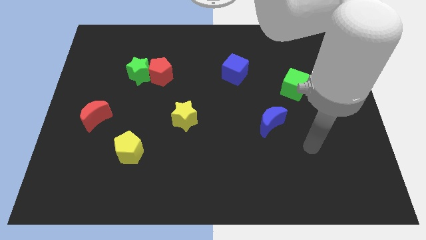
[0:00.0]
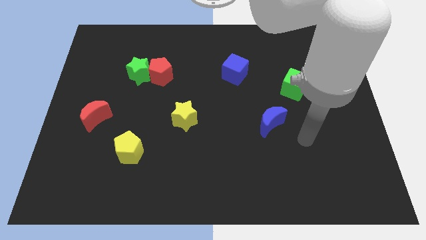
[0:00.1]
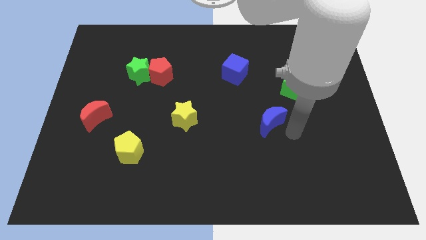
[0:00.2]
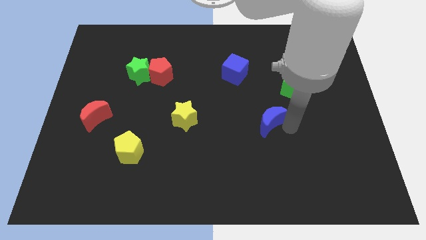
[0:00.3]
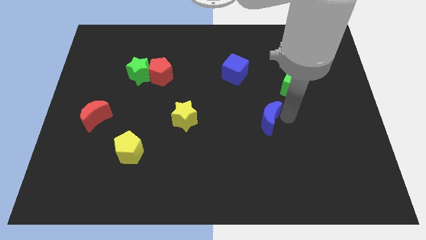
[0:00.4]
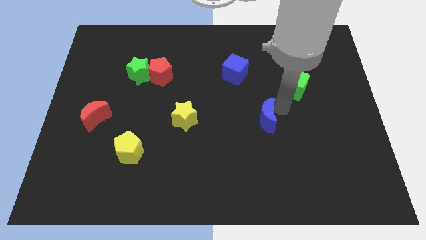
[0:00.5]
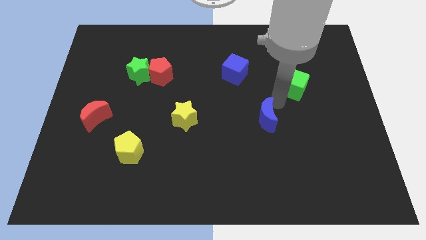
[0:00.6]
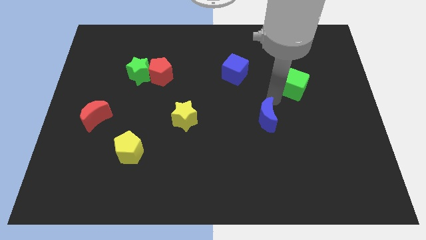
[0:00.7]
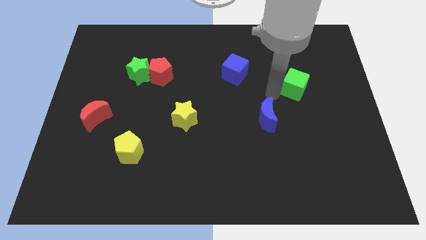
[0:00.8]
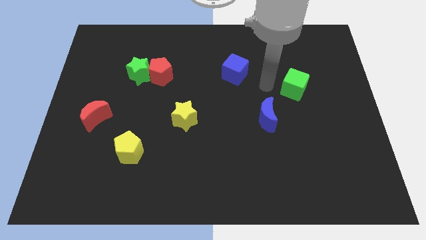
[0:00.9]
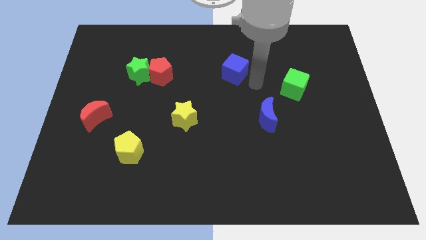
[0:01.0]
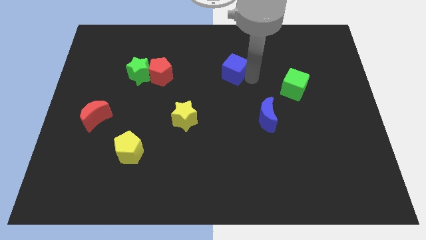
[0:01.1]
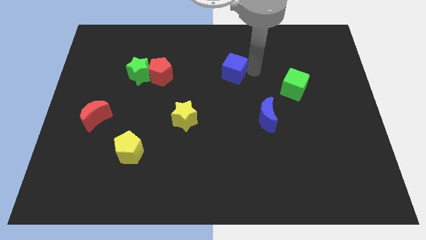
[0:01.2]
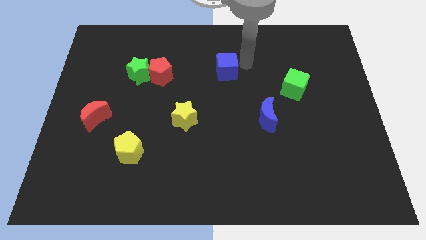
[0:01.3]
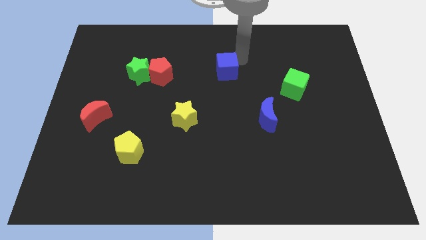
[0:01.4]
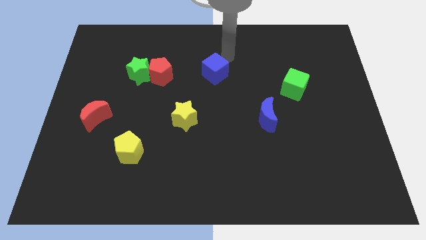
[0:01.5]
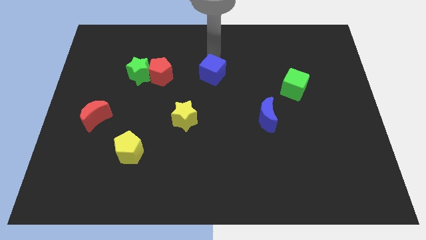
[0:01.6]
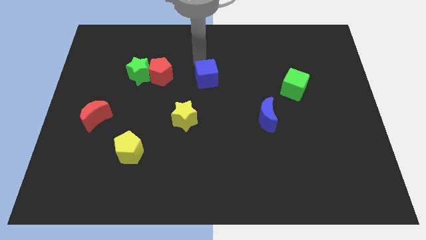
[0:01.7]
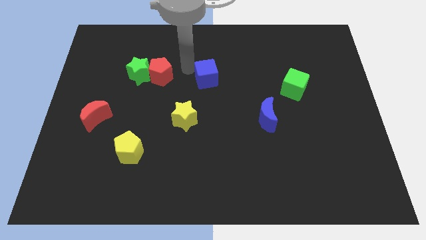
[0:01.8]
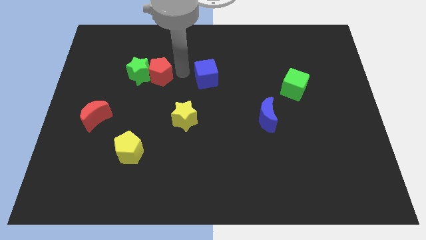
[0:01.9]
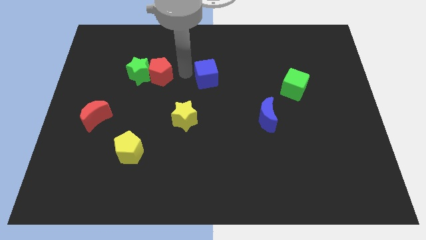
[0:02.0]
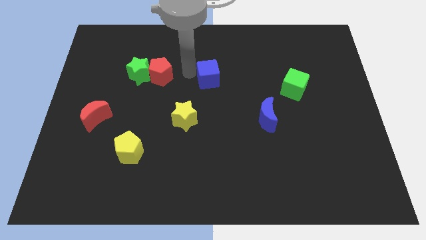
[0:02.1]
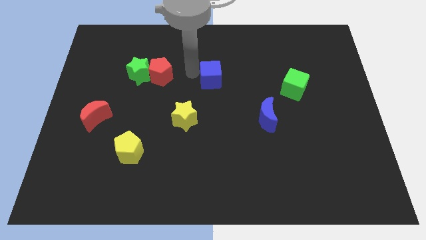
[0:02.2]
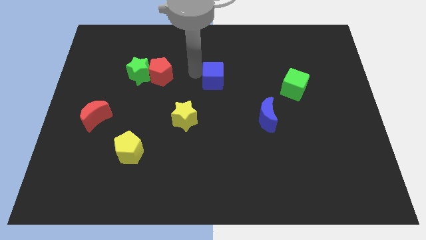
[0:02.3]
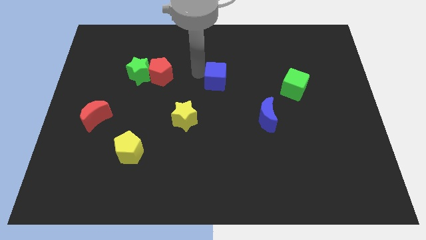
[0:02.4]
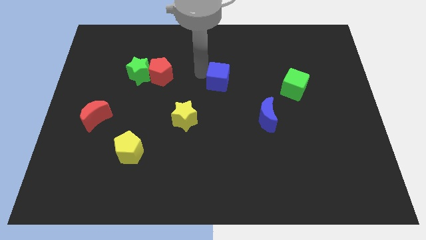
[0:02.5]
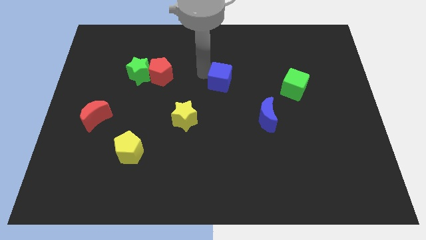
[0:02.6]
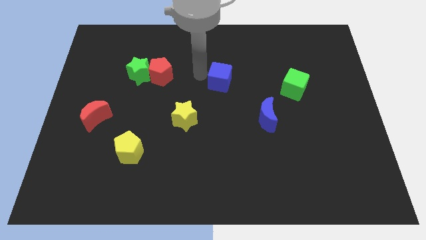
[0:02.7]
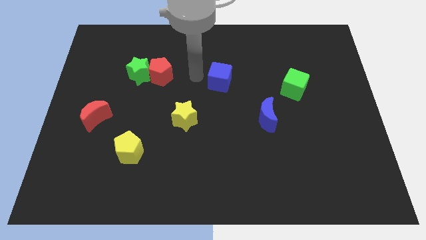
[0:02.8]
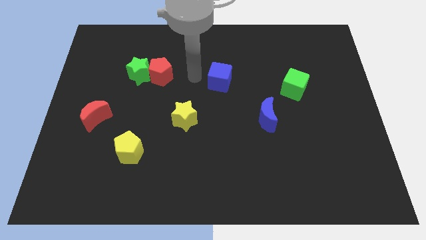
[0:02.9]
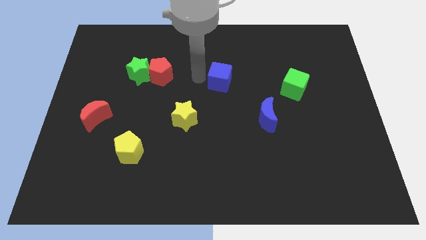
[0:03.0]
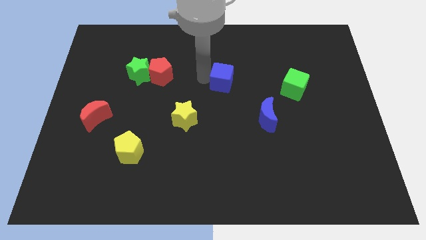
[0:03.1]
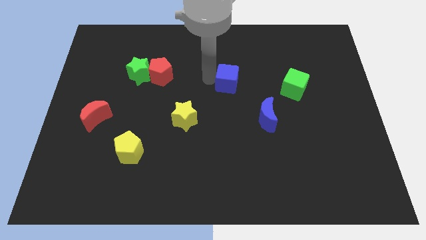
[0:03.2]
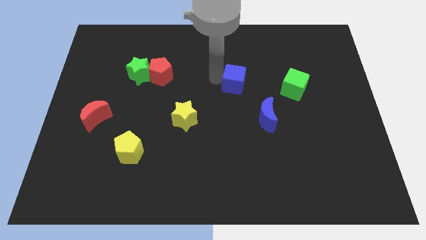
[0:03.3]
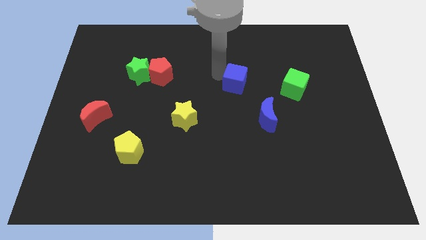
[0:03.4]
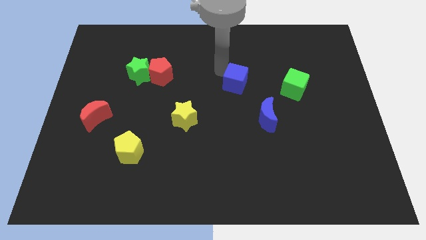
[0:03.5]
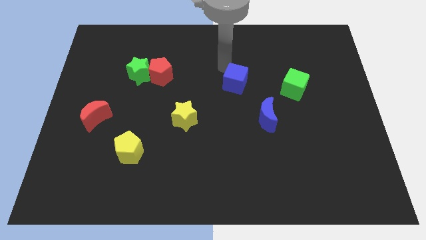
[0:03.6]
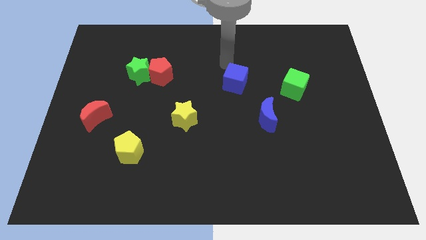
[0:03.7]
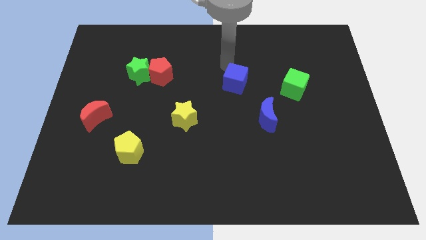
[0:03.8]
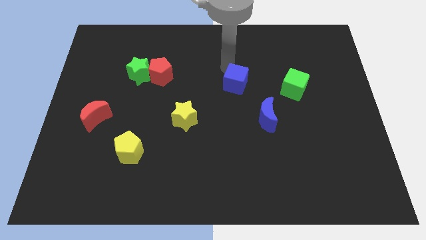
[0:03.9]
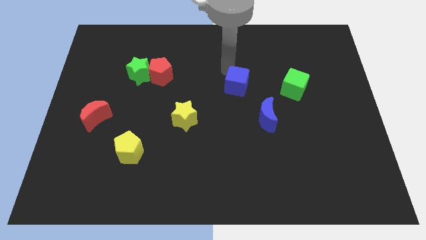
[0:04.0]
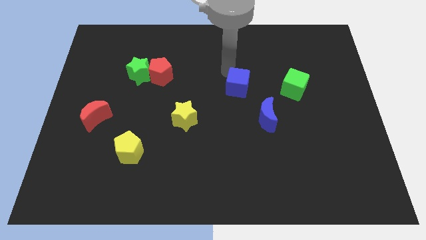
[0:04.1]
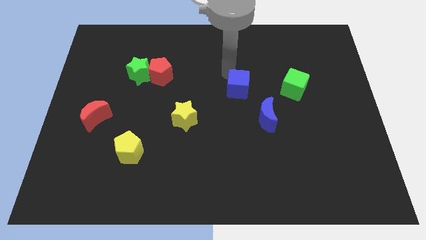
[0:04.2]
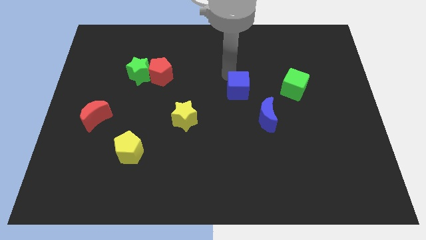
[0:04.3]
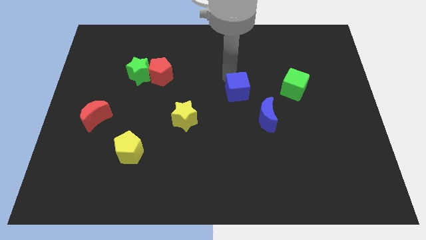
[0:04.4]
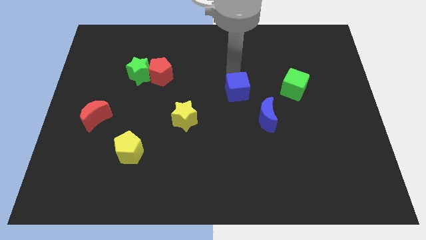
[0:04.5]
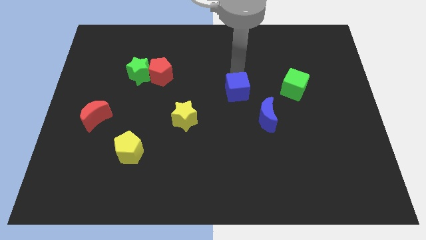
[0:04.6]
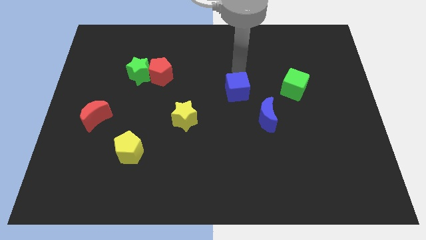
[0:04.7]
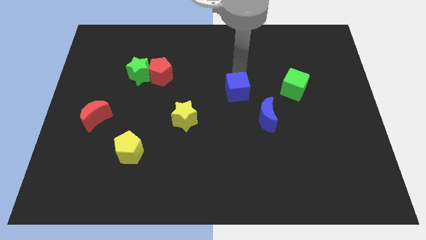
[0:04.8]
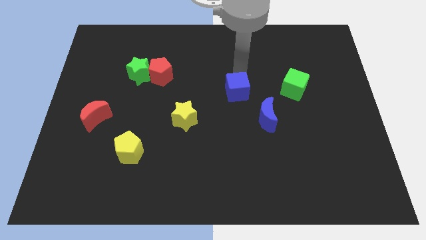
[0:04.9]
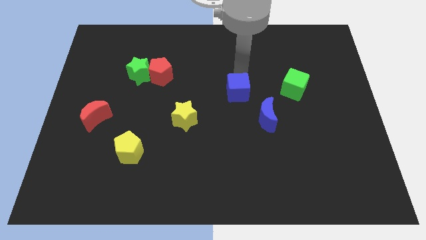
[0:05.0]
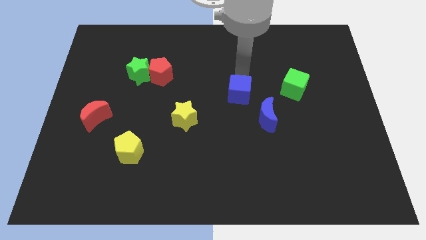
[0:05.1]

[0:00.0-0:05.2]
slightly move the blue cube downwards

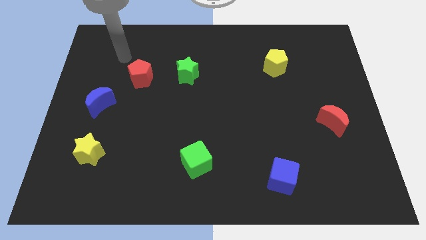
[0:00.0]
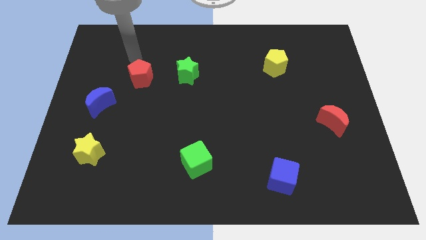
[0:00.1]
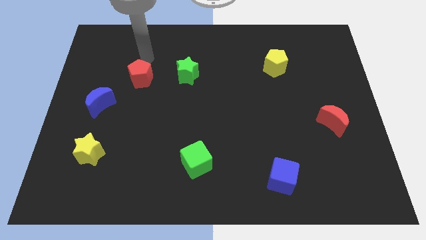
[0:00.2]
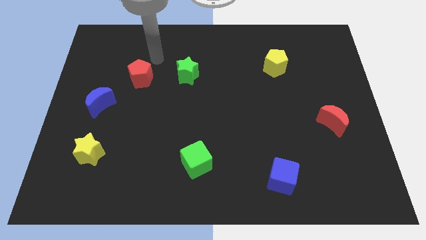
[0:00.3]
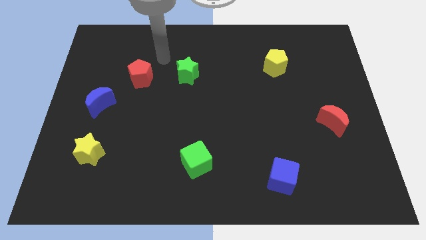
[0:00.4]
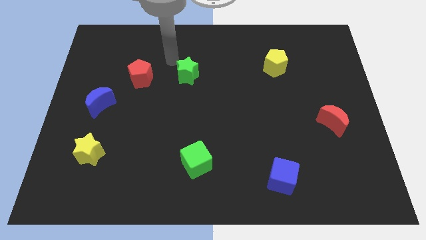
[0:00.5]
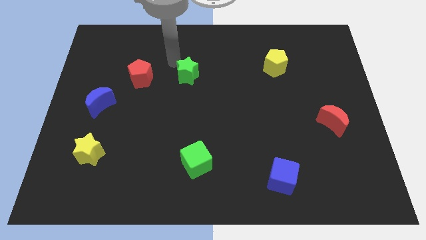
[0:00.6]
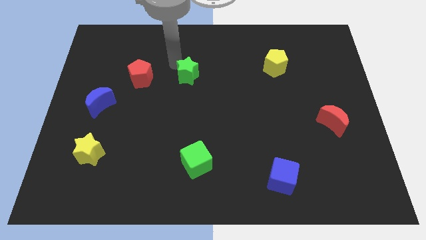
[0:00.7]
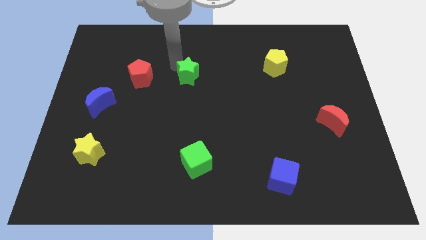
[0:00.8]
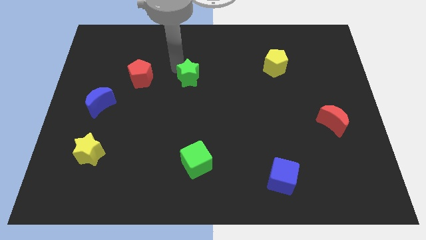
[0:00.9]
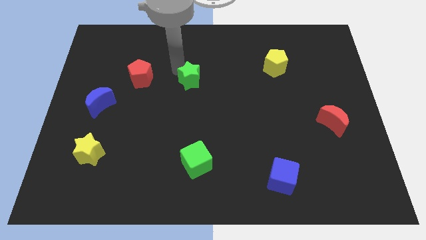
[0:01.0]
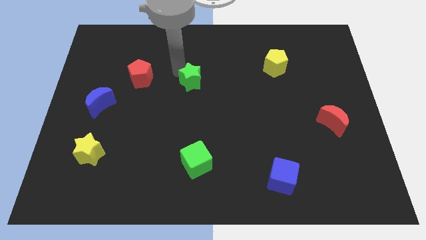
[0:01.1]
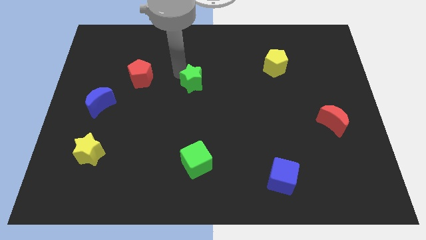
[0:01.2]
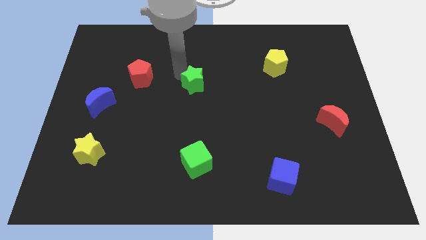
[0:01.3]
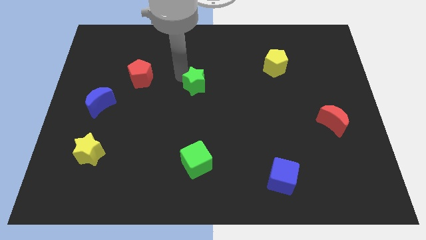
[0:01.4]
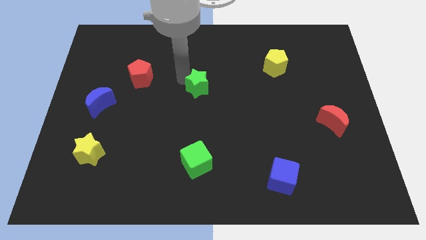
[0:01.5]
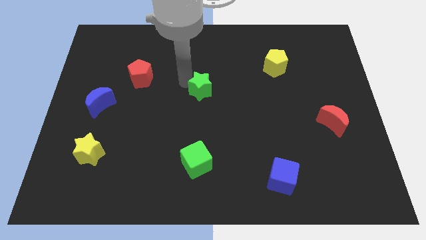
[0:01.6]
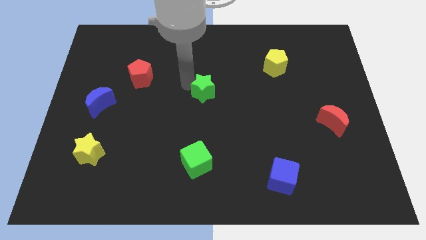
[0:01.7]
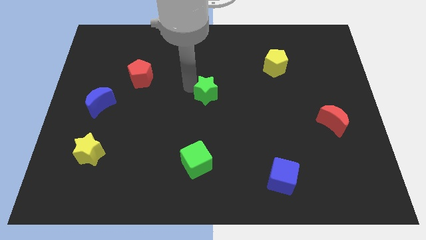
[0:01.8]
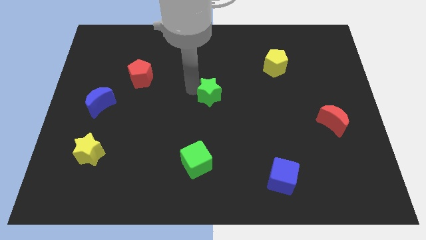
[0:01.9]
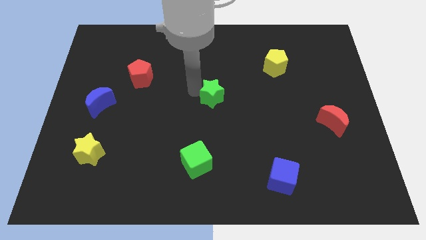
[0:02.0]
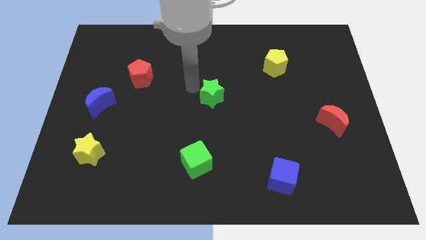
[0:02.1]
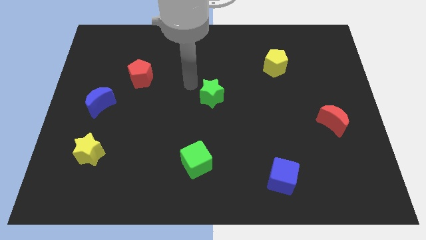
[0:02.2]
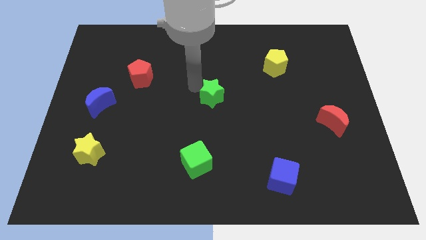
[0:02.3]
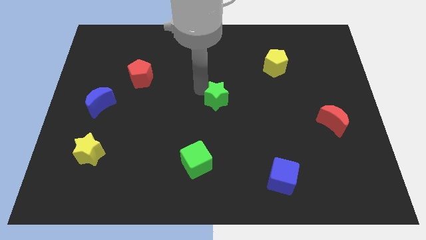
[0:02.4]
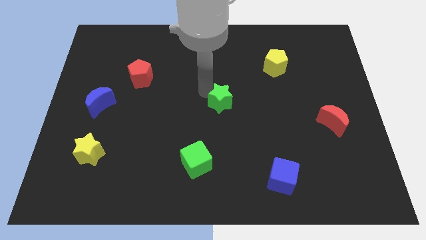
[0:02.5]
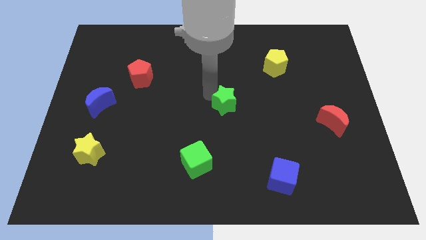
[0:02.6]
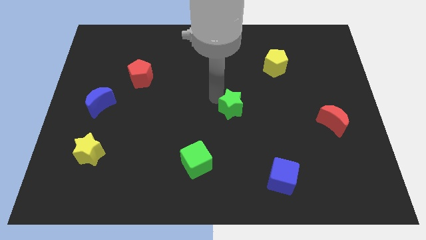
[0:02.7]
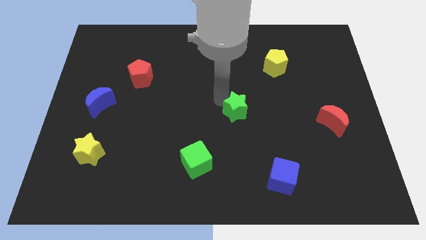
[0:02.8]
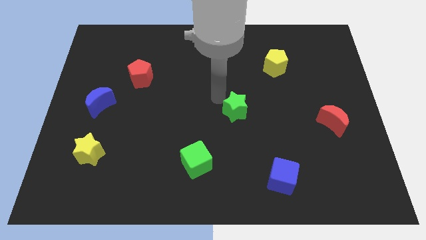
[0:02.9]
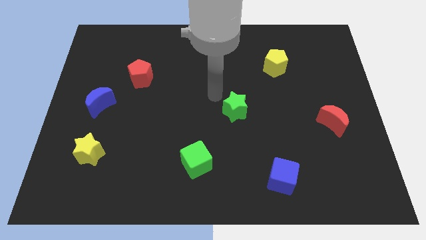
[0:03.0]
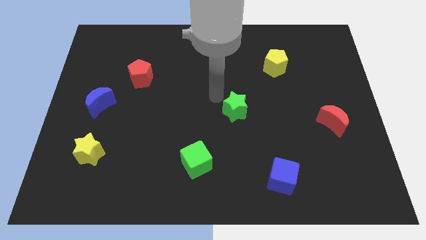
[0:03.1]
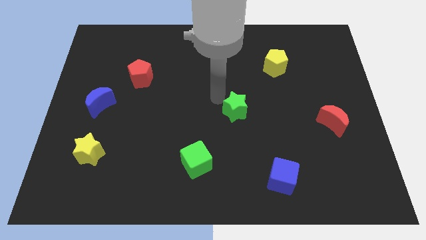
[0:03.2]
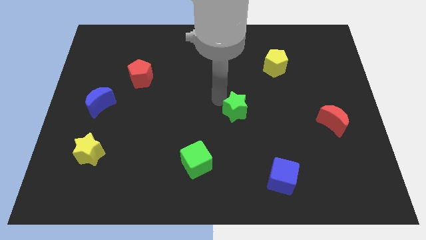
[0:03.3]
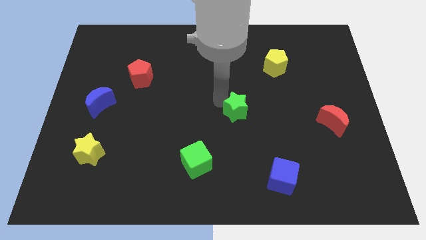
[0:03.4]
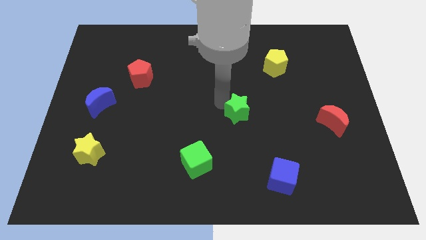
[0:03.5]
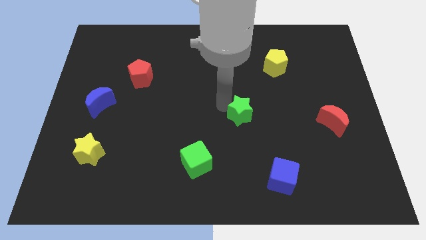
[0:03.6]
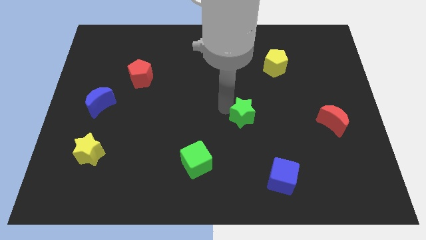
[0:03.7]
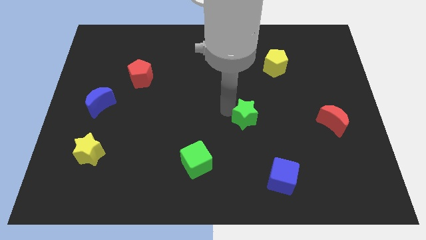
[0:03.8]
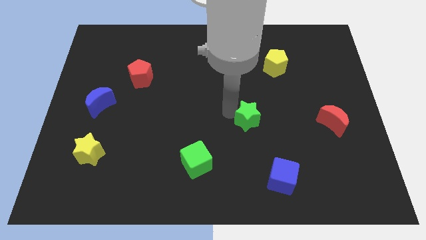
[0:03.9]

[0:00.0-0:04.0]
move the green star down and to the right diagonally
